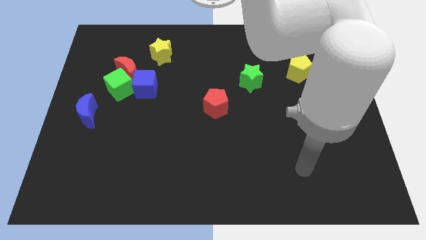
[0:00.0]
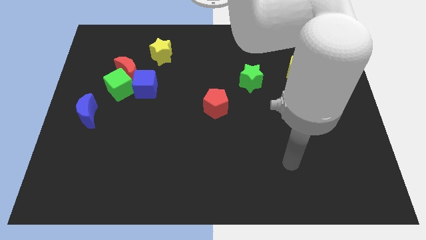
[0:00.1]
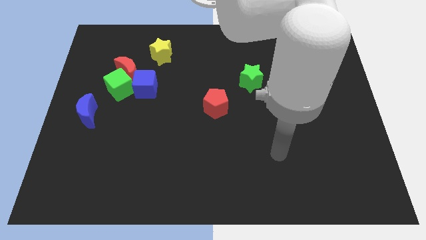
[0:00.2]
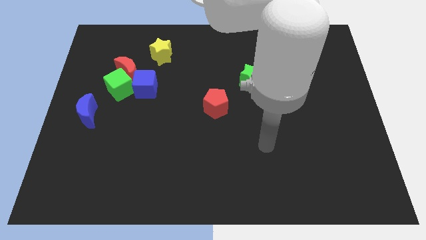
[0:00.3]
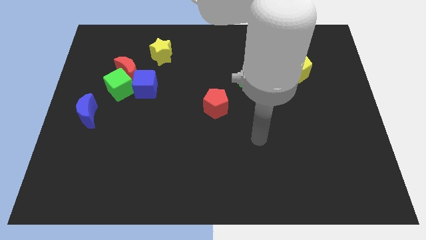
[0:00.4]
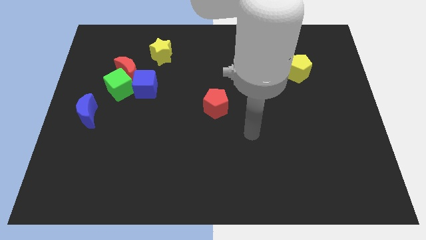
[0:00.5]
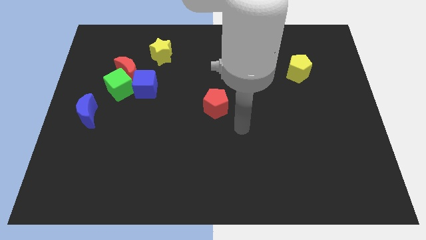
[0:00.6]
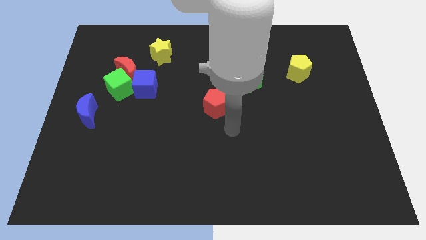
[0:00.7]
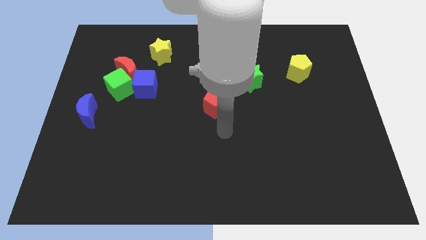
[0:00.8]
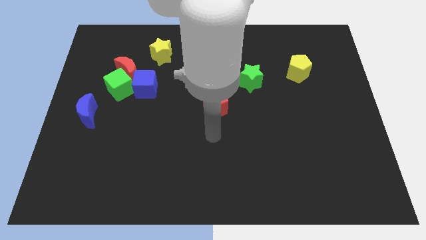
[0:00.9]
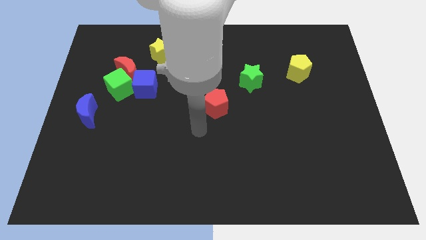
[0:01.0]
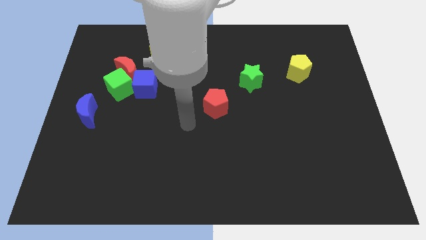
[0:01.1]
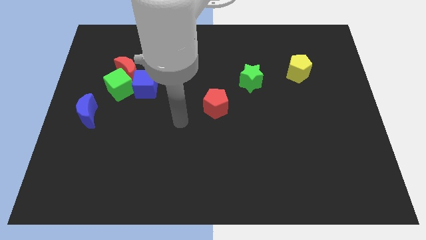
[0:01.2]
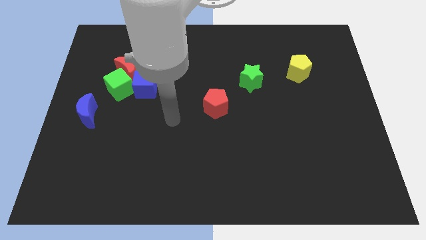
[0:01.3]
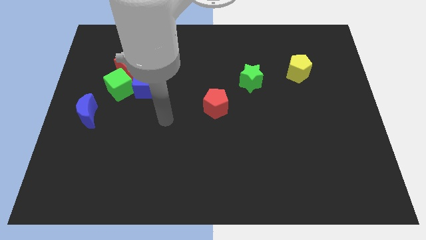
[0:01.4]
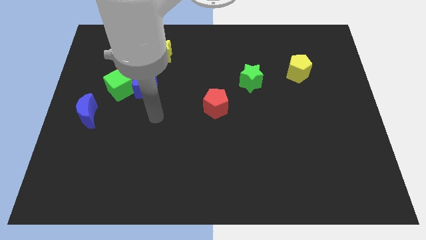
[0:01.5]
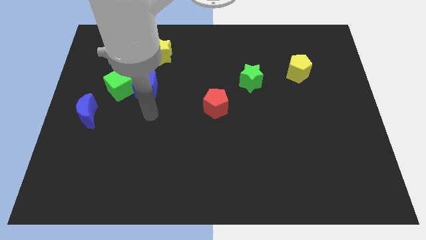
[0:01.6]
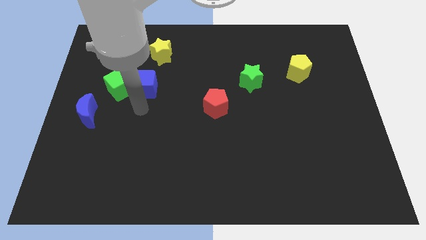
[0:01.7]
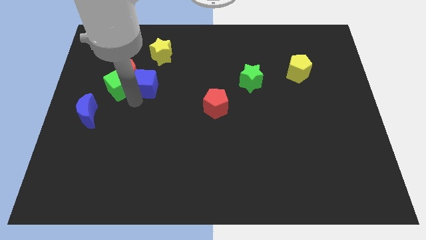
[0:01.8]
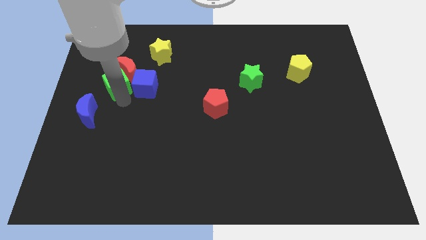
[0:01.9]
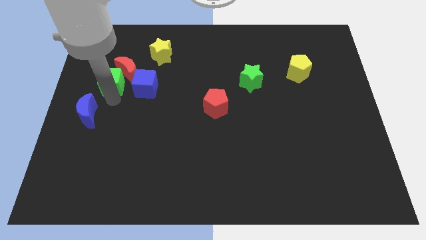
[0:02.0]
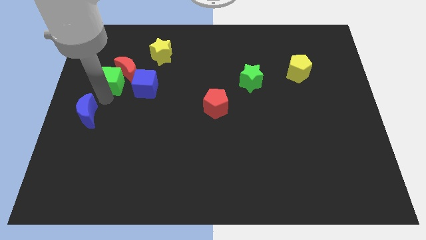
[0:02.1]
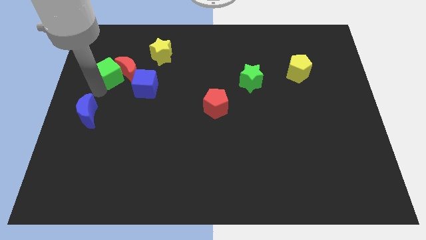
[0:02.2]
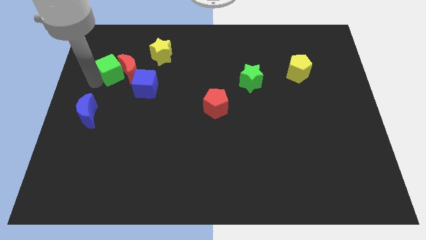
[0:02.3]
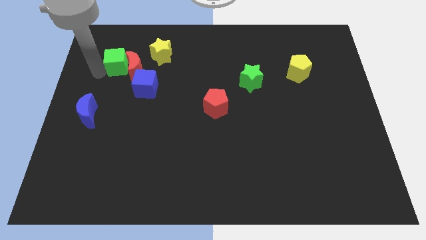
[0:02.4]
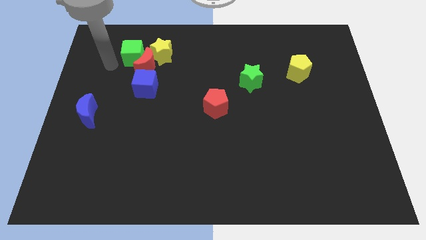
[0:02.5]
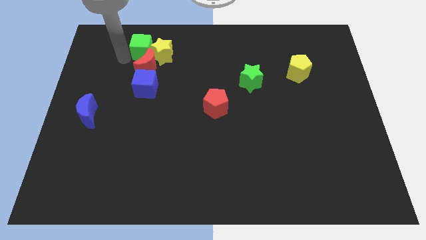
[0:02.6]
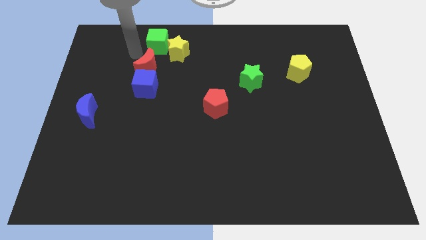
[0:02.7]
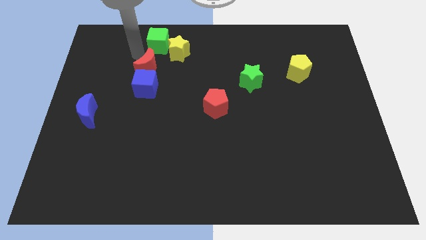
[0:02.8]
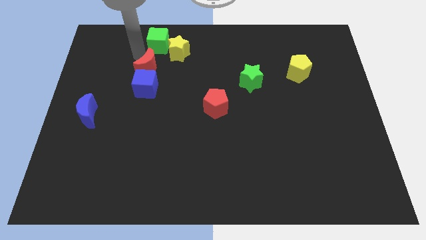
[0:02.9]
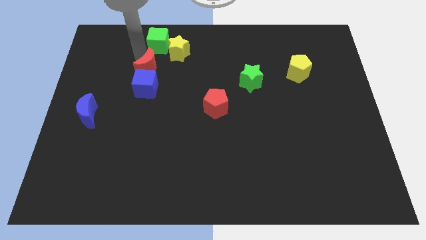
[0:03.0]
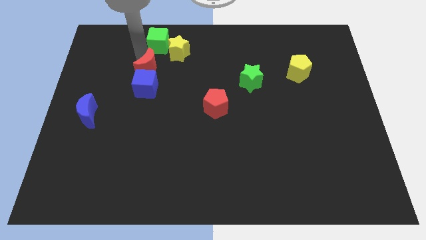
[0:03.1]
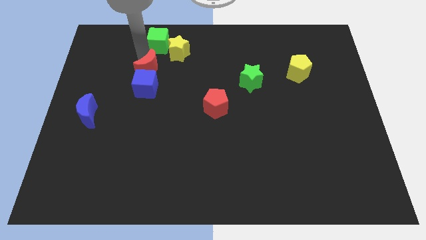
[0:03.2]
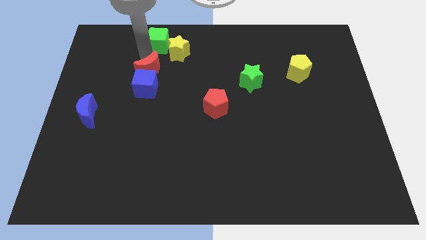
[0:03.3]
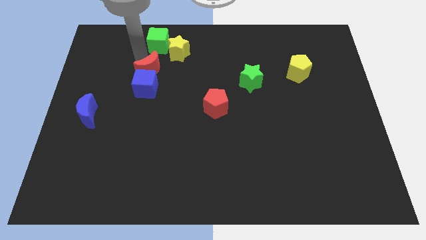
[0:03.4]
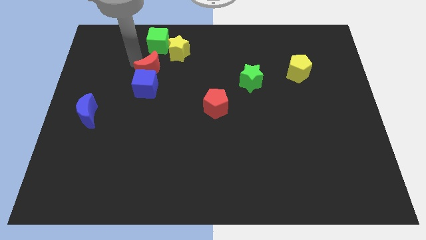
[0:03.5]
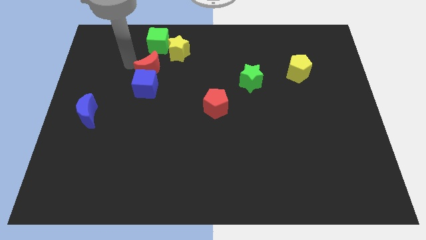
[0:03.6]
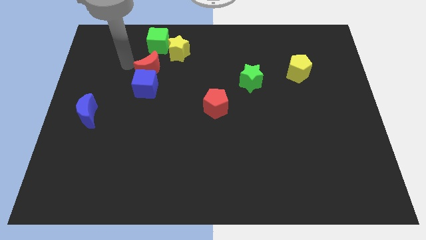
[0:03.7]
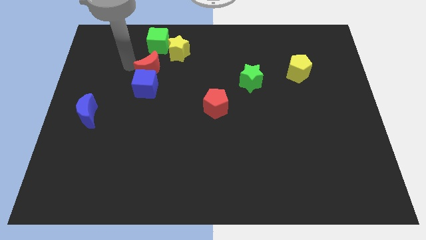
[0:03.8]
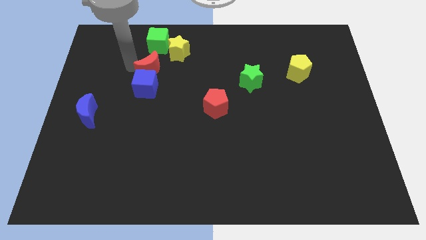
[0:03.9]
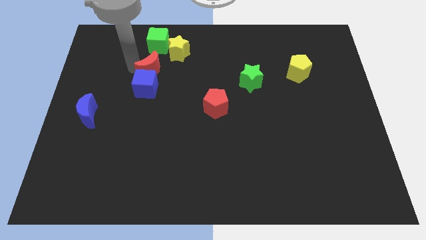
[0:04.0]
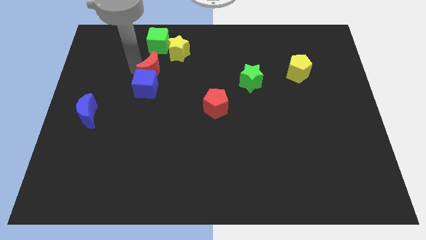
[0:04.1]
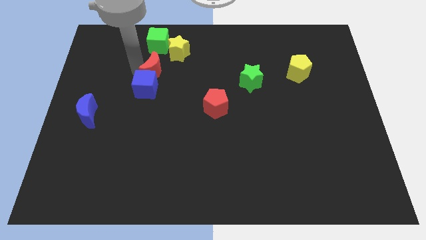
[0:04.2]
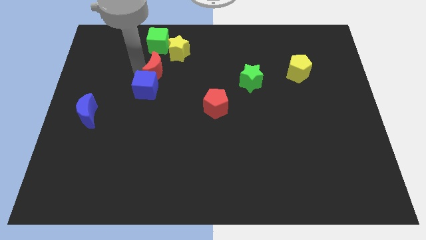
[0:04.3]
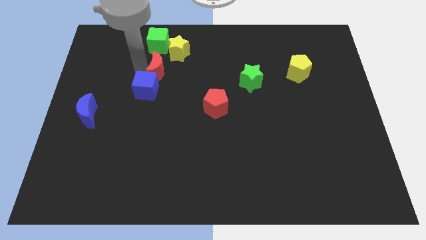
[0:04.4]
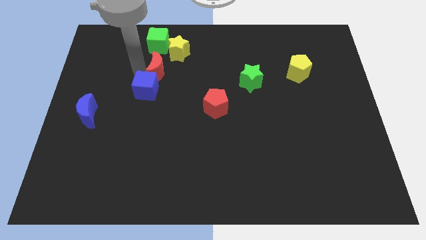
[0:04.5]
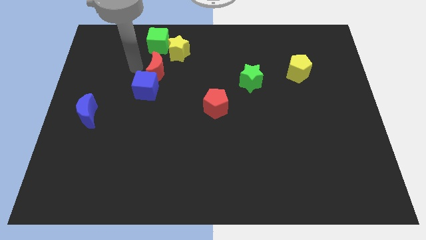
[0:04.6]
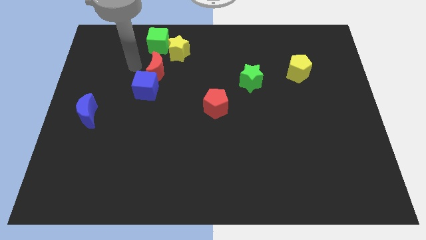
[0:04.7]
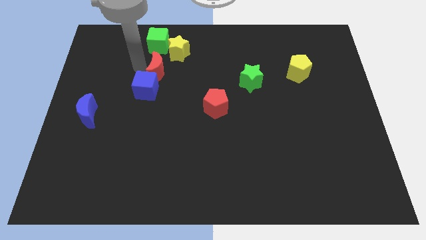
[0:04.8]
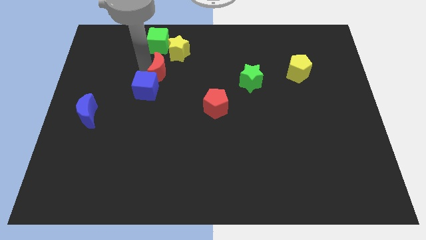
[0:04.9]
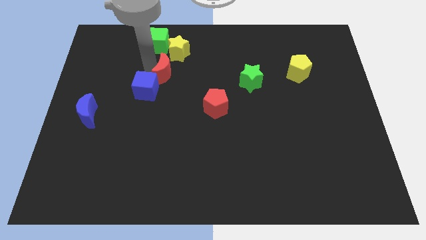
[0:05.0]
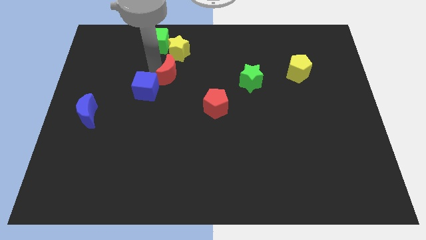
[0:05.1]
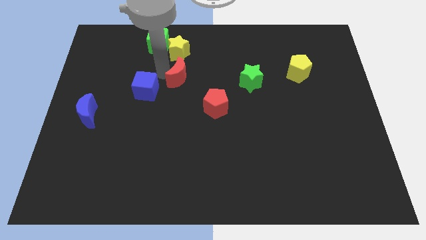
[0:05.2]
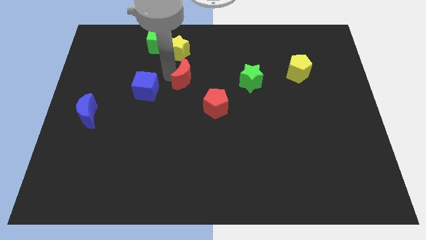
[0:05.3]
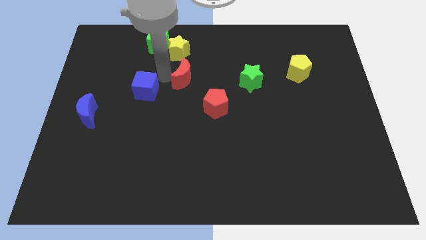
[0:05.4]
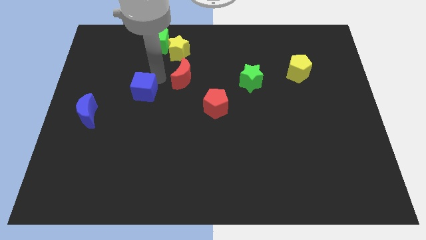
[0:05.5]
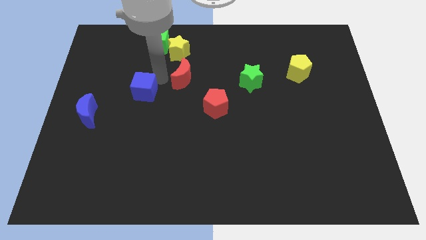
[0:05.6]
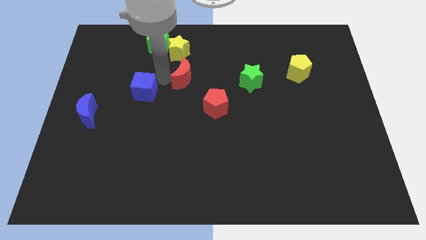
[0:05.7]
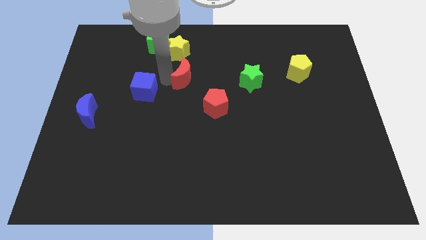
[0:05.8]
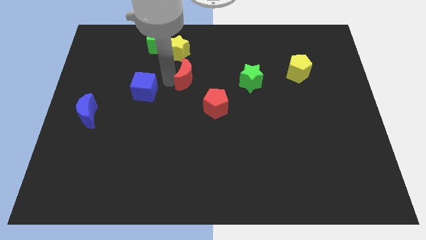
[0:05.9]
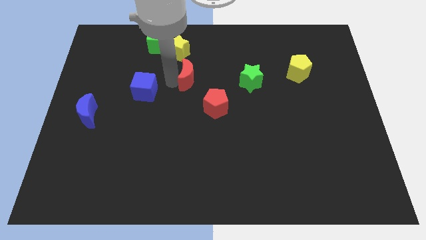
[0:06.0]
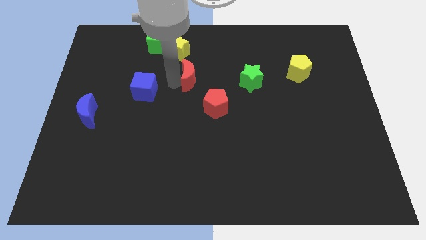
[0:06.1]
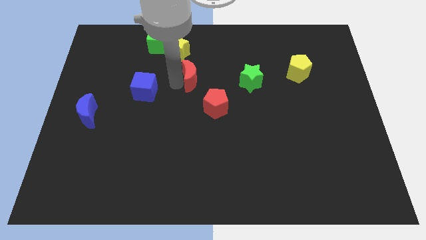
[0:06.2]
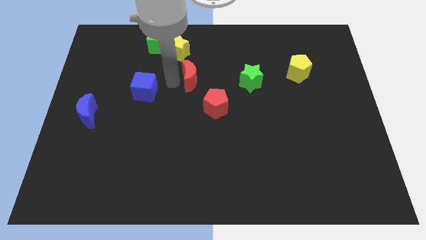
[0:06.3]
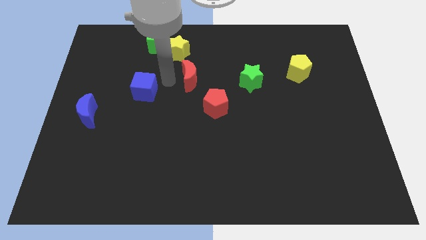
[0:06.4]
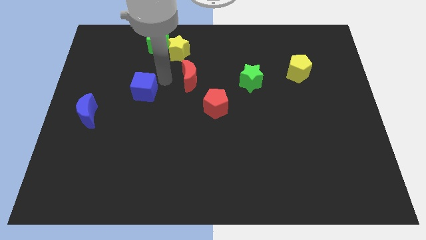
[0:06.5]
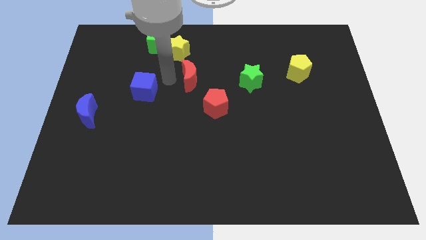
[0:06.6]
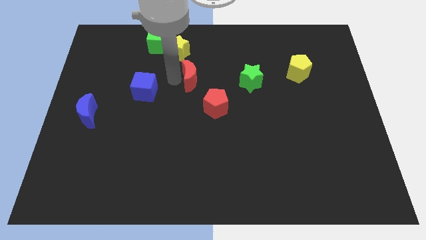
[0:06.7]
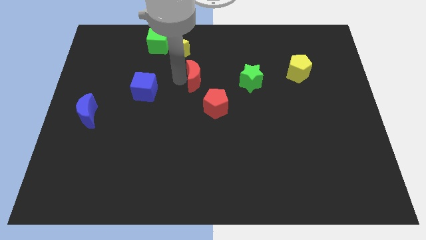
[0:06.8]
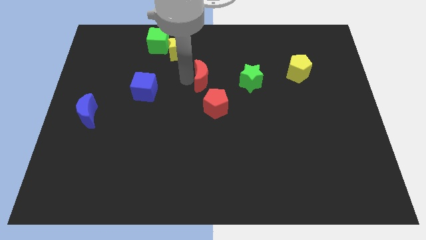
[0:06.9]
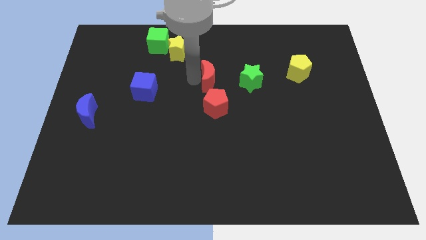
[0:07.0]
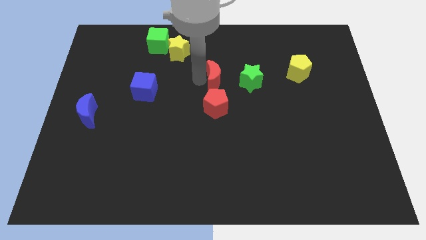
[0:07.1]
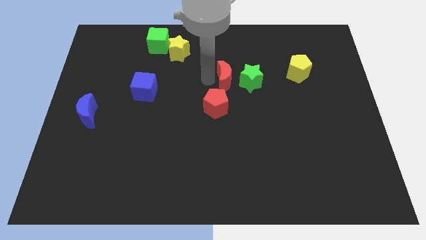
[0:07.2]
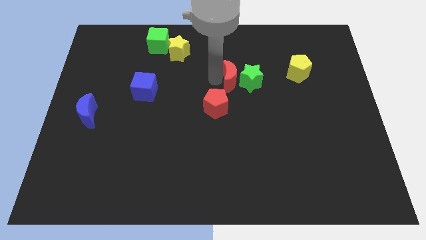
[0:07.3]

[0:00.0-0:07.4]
move the red moon close to the green star
